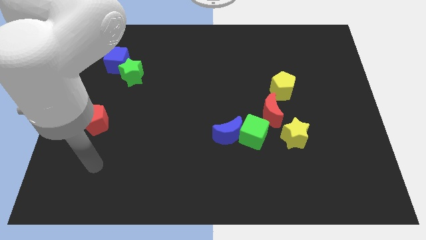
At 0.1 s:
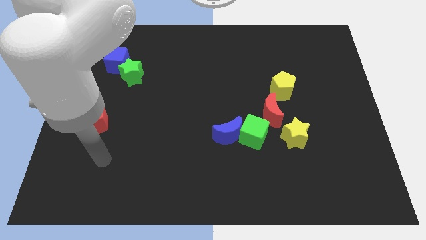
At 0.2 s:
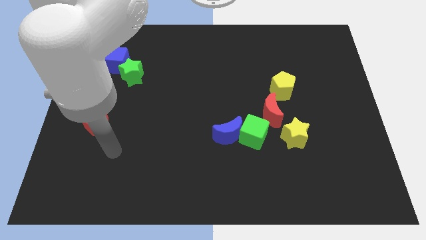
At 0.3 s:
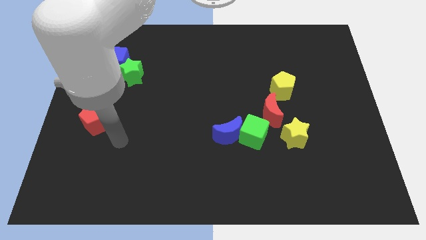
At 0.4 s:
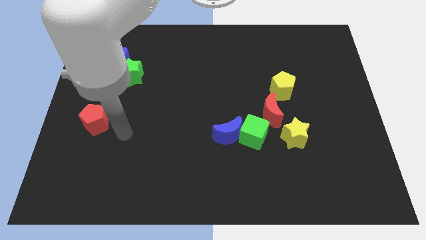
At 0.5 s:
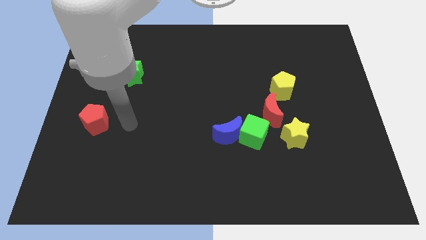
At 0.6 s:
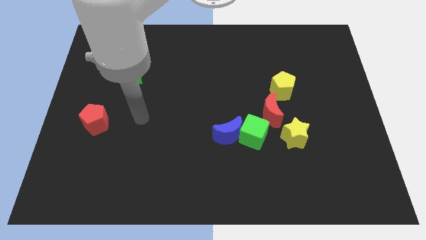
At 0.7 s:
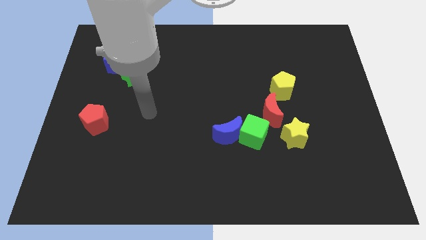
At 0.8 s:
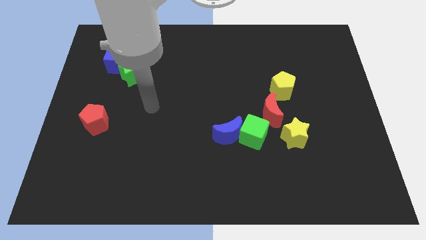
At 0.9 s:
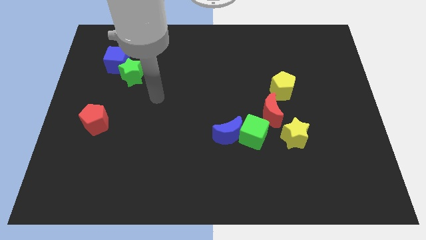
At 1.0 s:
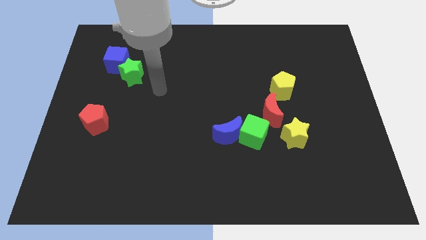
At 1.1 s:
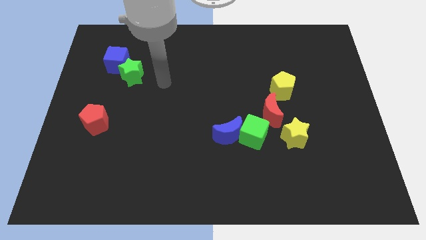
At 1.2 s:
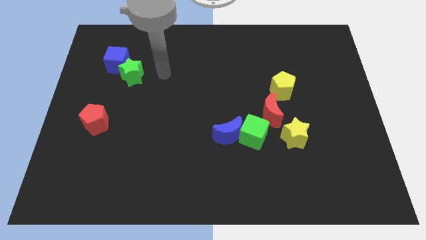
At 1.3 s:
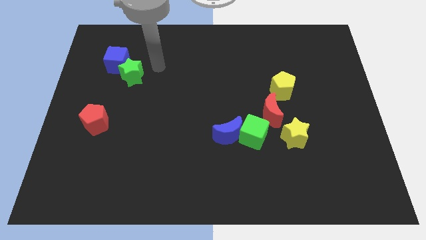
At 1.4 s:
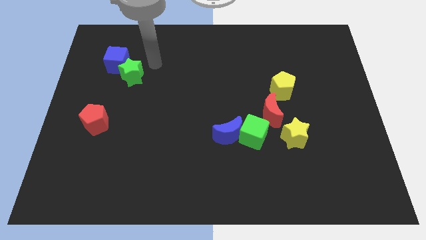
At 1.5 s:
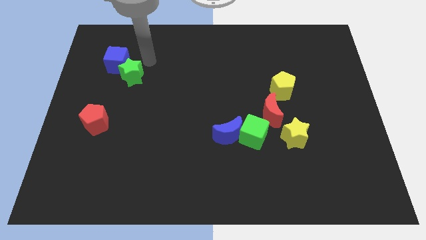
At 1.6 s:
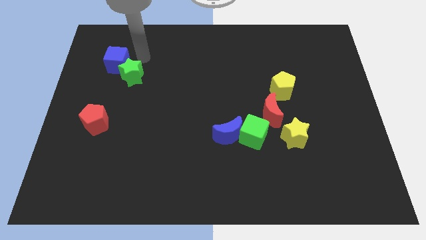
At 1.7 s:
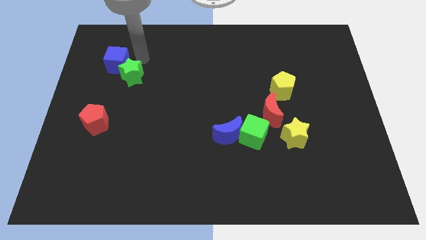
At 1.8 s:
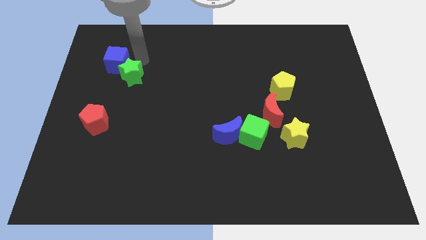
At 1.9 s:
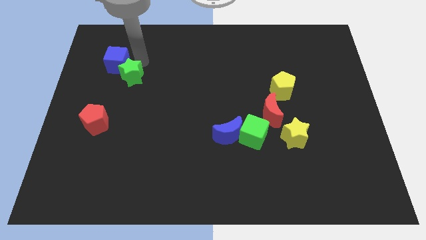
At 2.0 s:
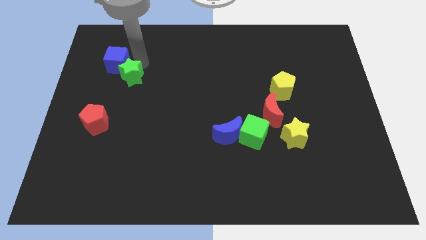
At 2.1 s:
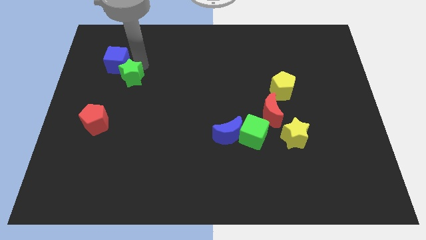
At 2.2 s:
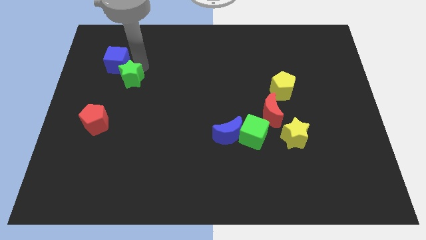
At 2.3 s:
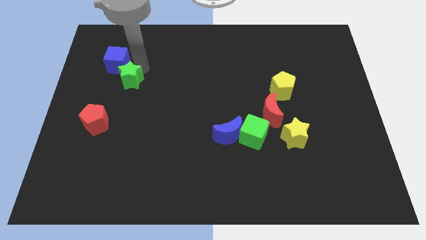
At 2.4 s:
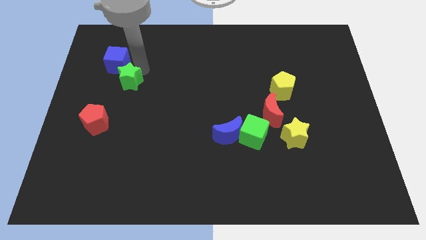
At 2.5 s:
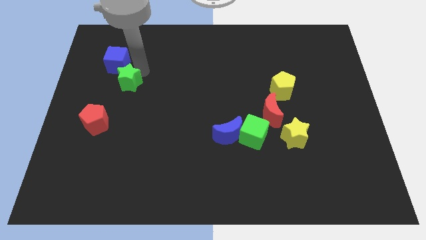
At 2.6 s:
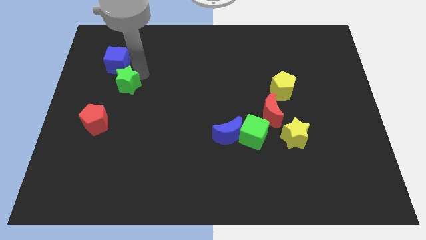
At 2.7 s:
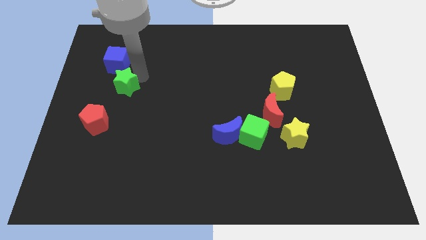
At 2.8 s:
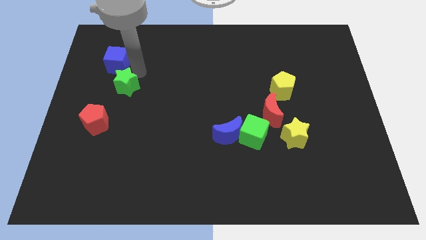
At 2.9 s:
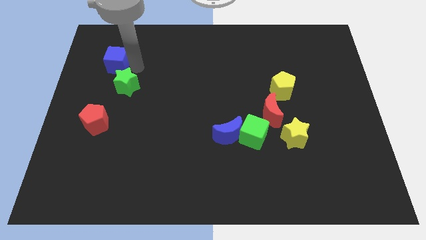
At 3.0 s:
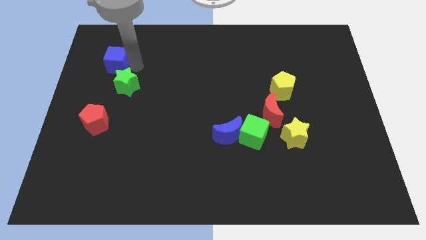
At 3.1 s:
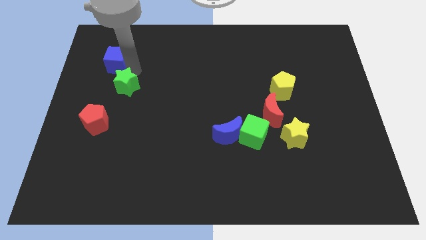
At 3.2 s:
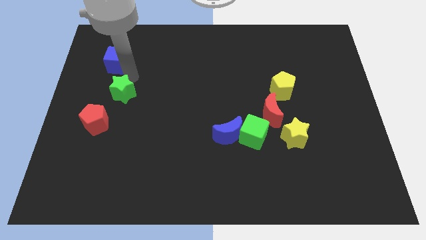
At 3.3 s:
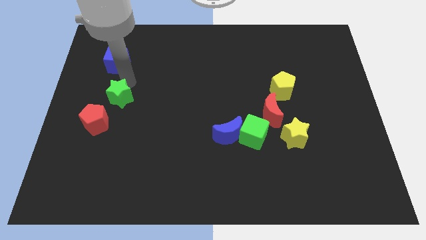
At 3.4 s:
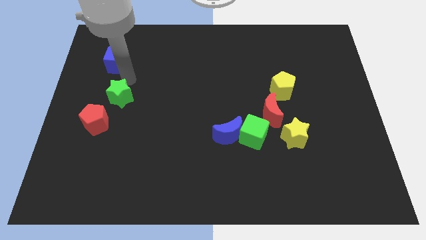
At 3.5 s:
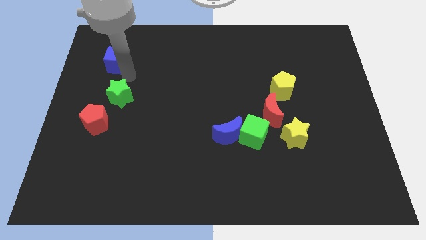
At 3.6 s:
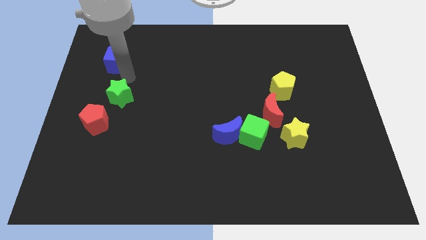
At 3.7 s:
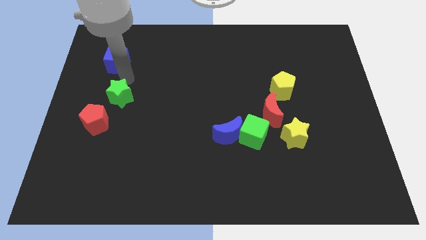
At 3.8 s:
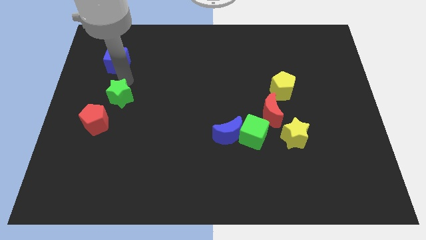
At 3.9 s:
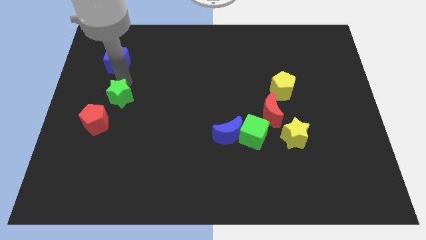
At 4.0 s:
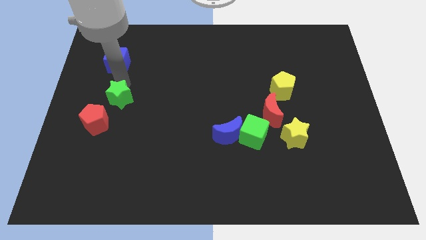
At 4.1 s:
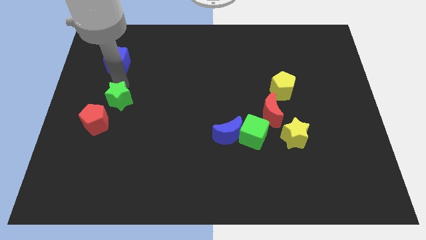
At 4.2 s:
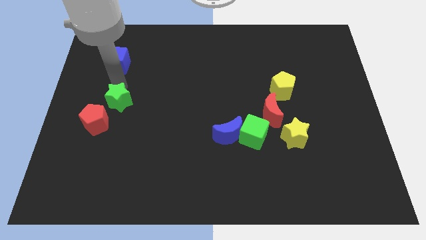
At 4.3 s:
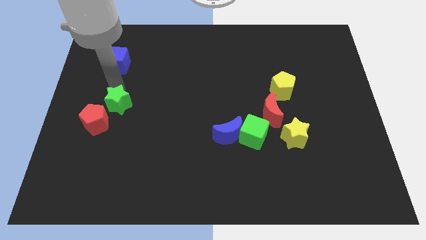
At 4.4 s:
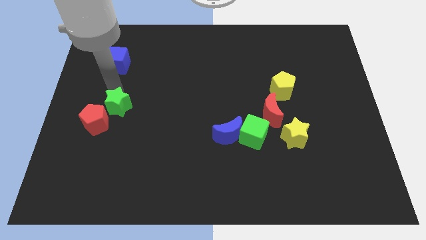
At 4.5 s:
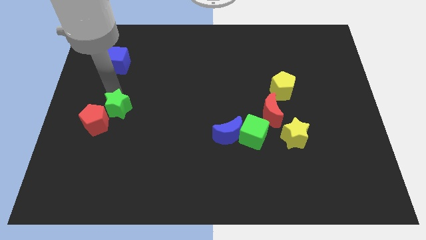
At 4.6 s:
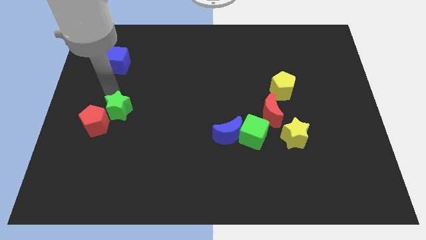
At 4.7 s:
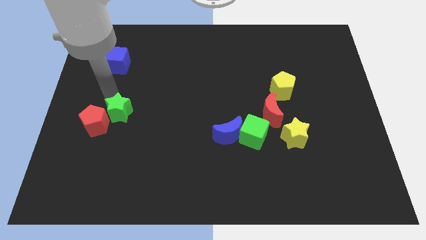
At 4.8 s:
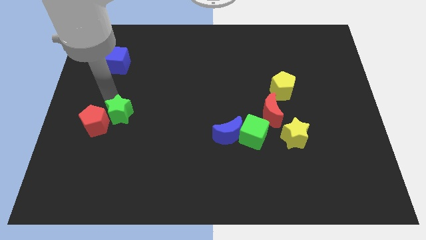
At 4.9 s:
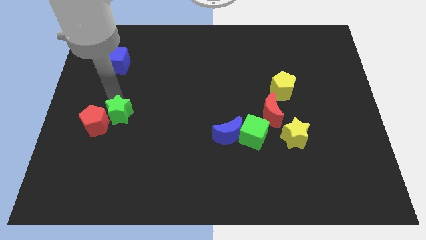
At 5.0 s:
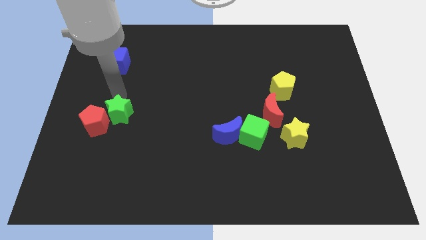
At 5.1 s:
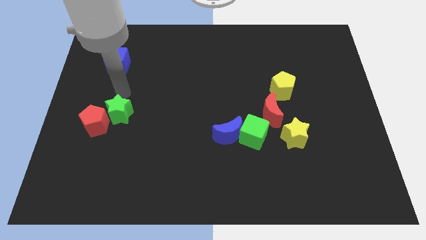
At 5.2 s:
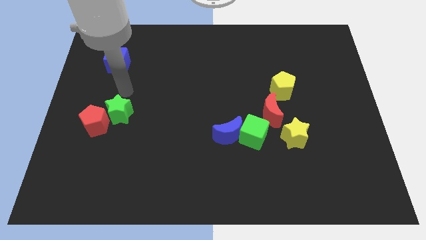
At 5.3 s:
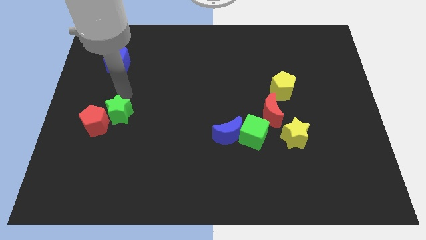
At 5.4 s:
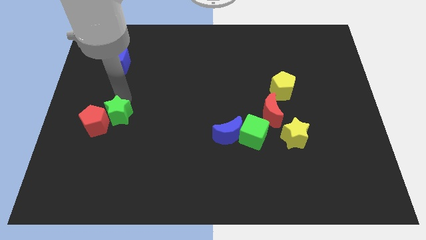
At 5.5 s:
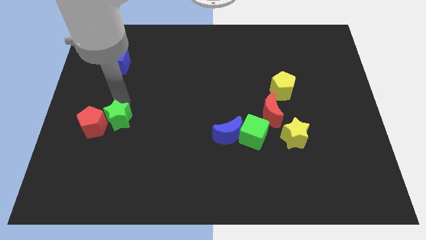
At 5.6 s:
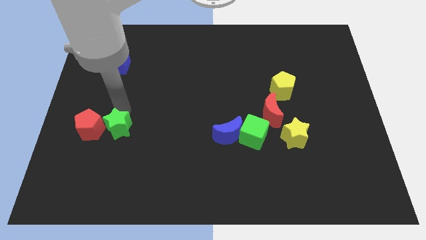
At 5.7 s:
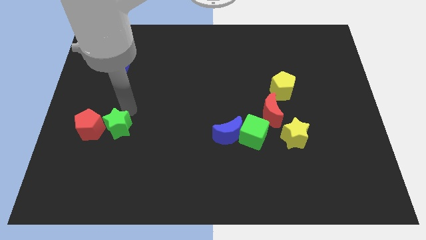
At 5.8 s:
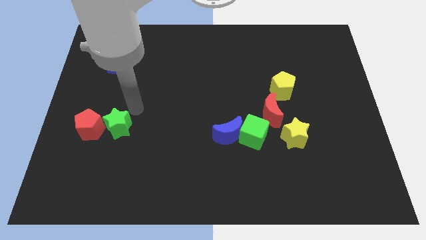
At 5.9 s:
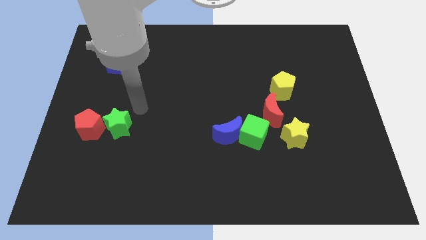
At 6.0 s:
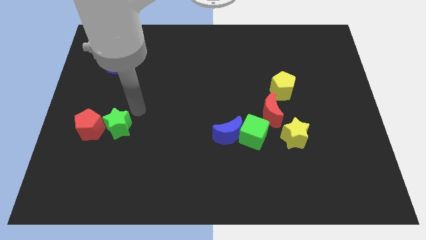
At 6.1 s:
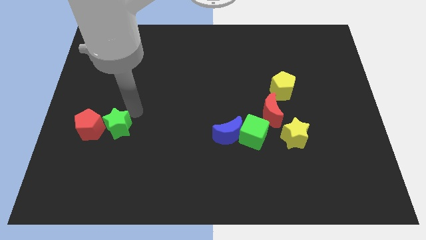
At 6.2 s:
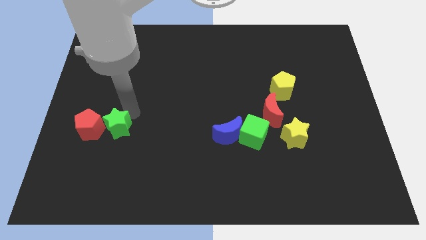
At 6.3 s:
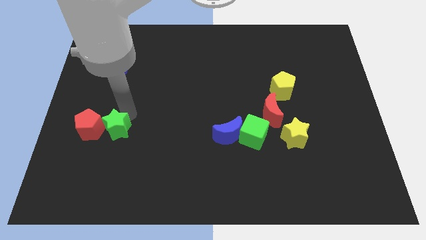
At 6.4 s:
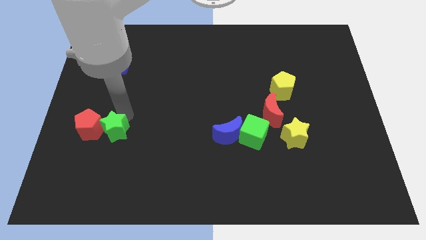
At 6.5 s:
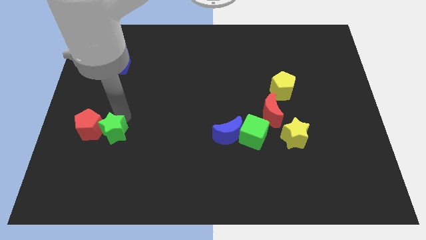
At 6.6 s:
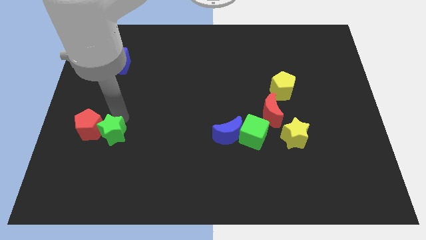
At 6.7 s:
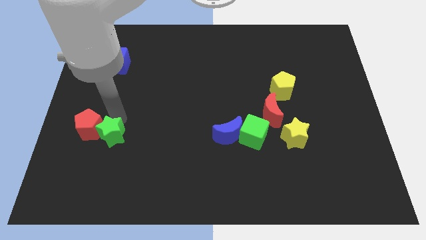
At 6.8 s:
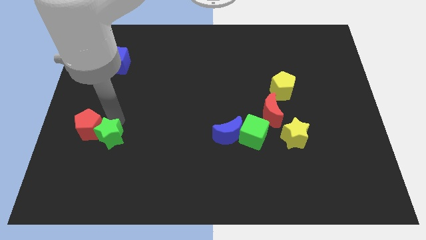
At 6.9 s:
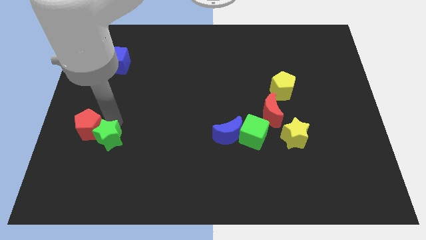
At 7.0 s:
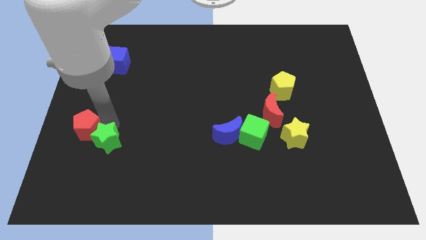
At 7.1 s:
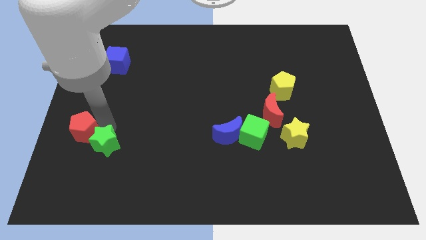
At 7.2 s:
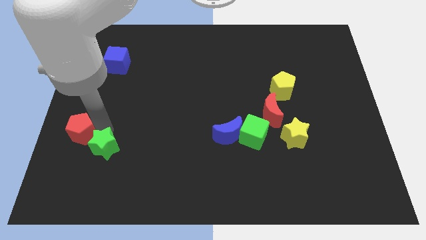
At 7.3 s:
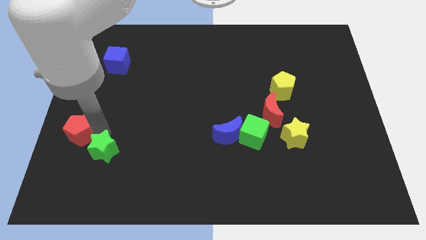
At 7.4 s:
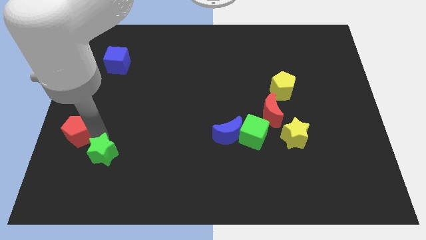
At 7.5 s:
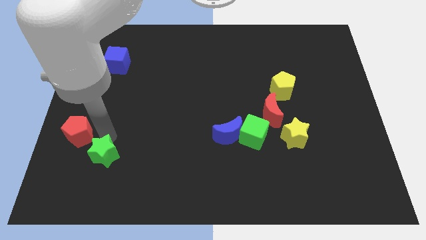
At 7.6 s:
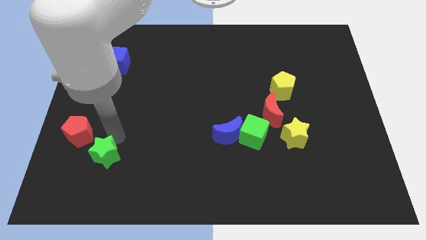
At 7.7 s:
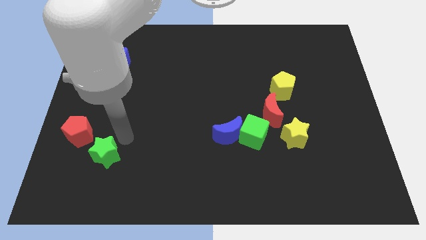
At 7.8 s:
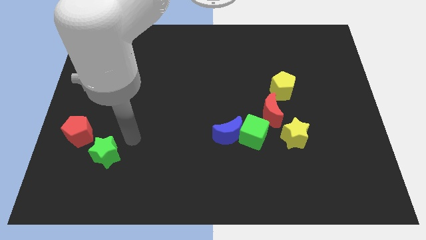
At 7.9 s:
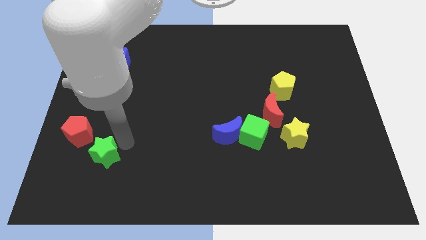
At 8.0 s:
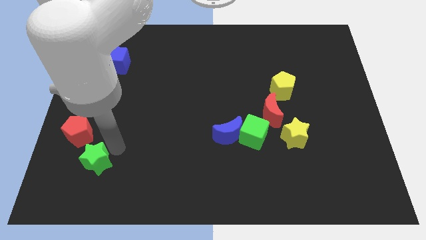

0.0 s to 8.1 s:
put the green star to the bottom of the red pentagon
